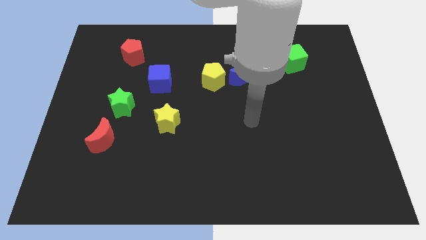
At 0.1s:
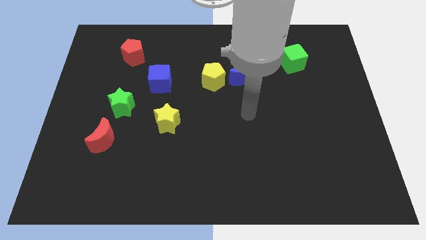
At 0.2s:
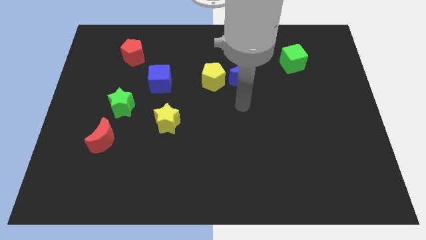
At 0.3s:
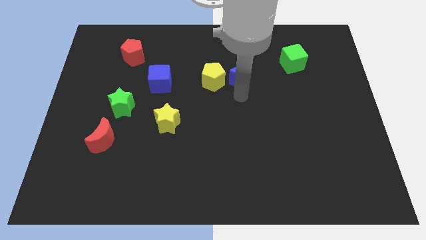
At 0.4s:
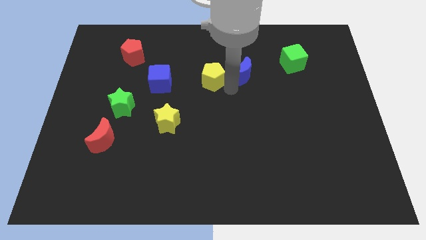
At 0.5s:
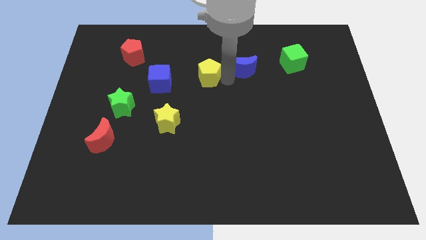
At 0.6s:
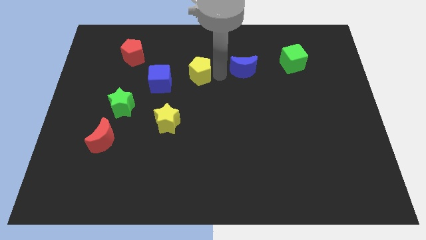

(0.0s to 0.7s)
pull the blue moon apart from the yellow pentagon

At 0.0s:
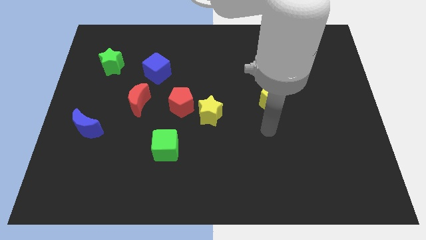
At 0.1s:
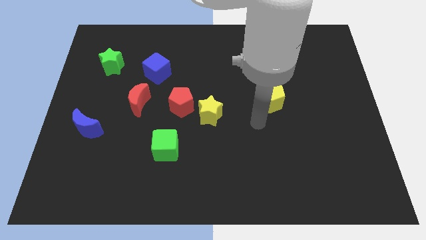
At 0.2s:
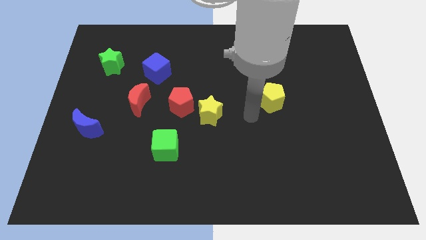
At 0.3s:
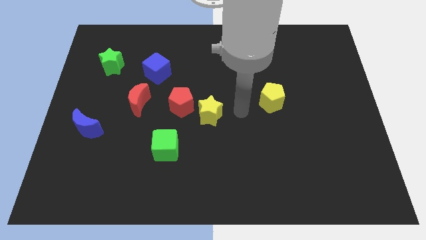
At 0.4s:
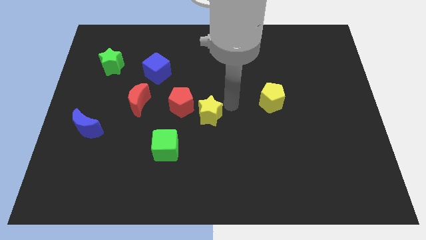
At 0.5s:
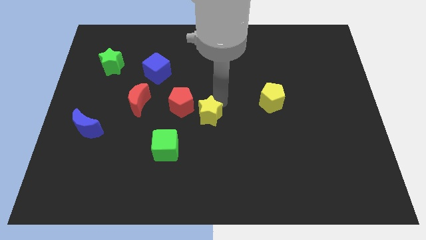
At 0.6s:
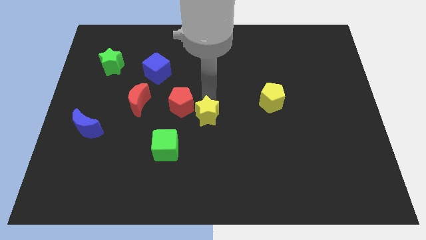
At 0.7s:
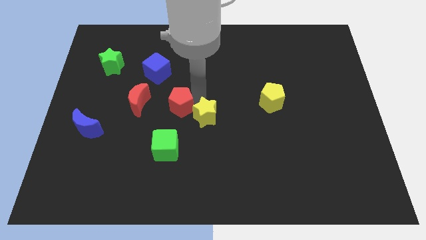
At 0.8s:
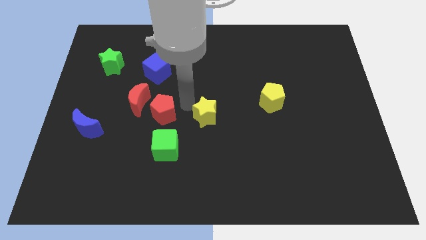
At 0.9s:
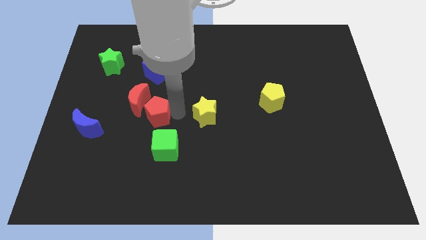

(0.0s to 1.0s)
pull the yellow star apart from the red pentagon

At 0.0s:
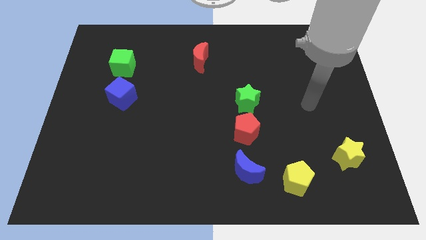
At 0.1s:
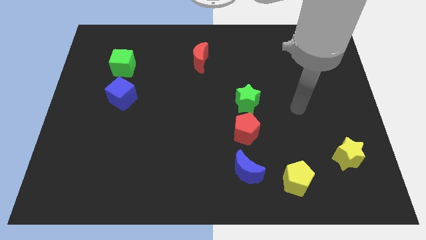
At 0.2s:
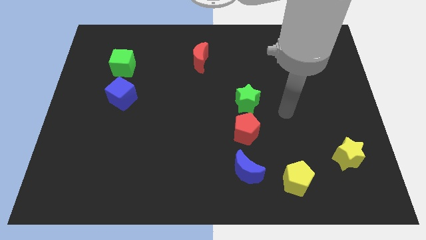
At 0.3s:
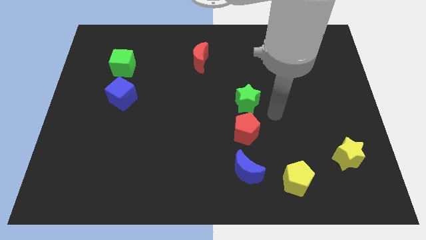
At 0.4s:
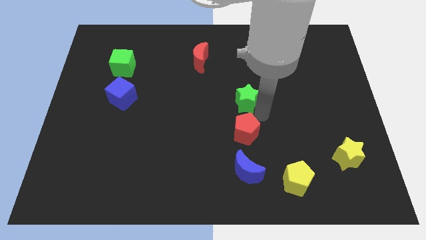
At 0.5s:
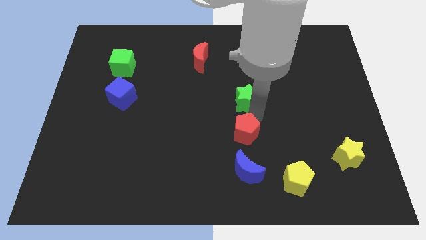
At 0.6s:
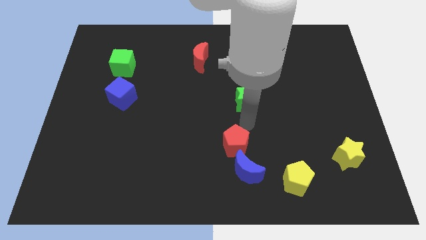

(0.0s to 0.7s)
separate the green star from the red pentagon

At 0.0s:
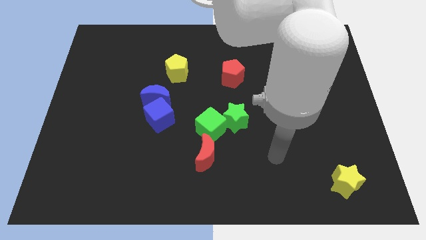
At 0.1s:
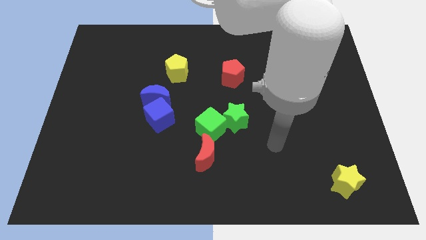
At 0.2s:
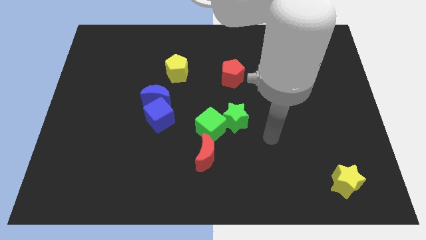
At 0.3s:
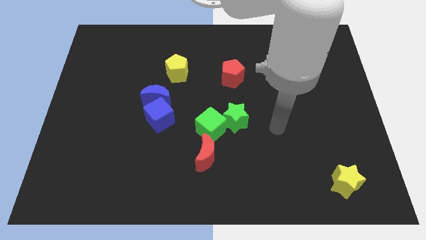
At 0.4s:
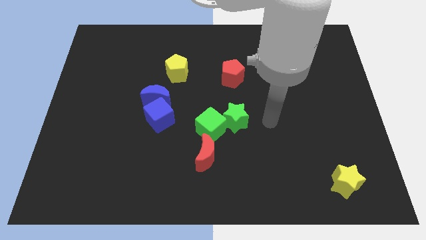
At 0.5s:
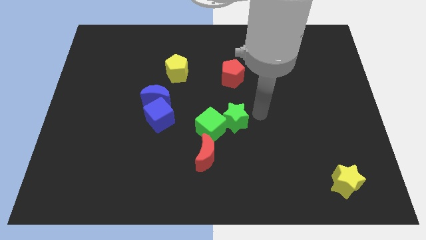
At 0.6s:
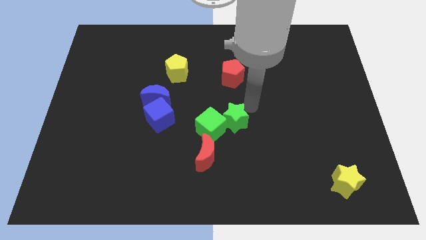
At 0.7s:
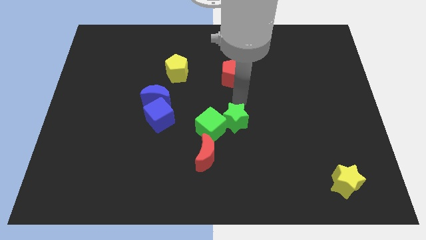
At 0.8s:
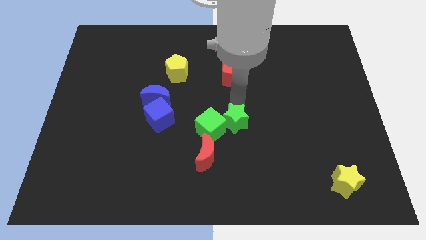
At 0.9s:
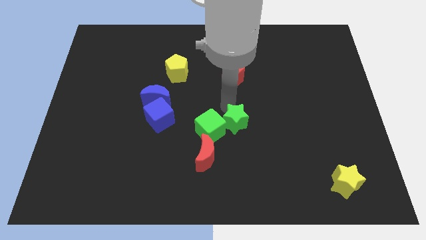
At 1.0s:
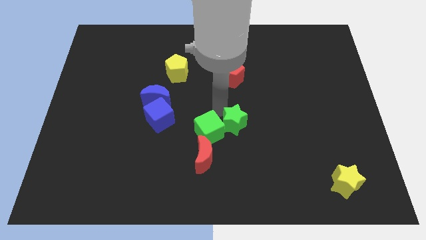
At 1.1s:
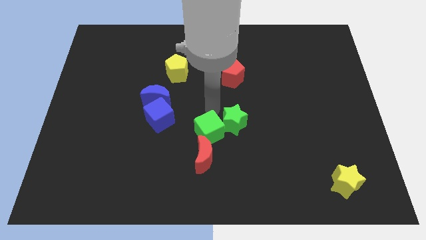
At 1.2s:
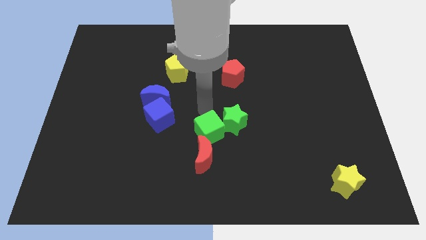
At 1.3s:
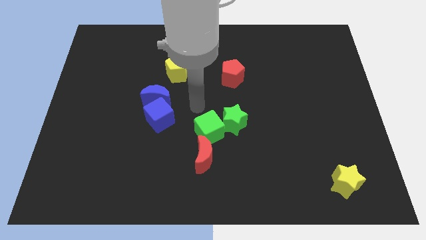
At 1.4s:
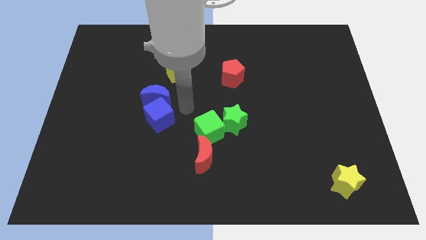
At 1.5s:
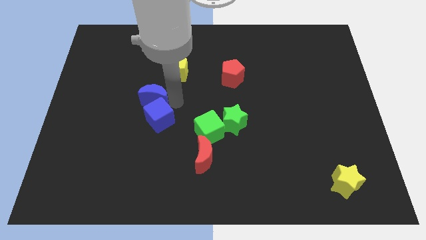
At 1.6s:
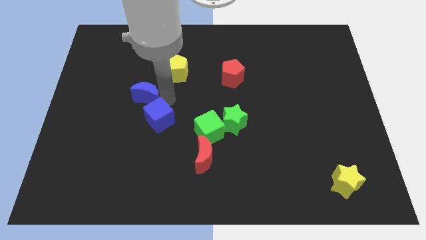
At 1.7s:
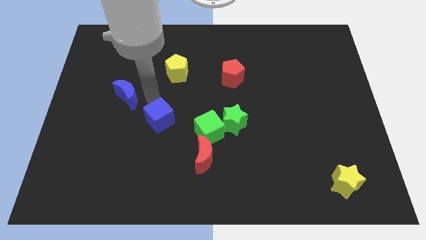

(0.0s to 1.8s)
move the blue cube away from the blue moon

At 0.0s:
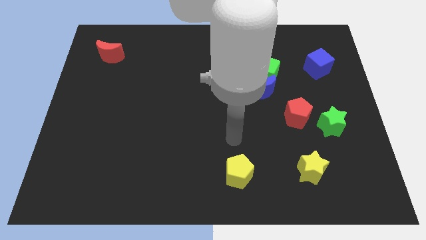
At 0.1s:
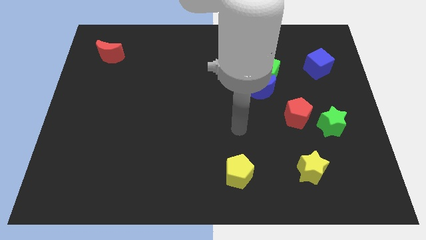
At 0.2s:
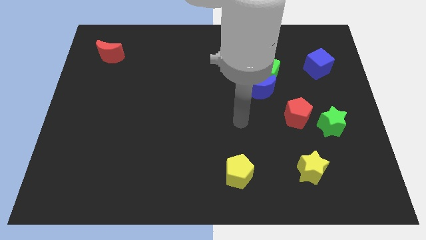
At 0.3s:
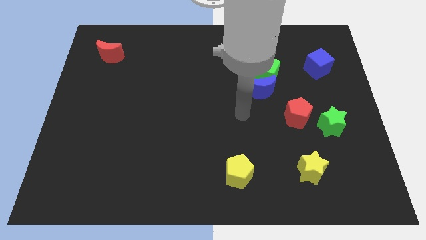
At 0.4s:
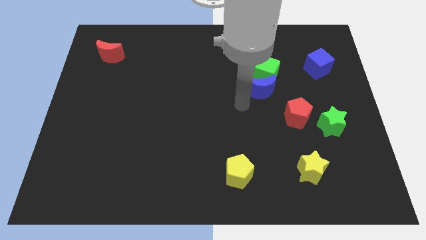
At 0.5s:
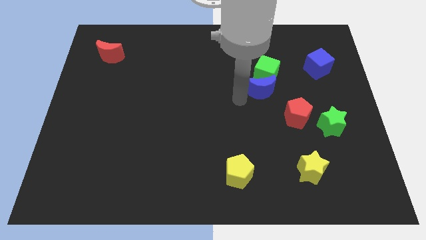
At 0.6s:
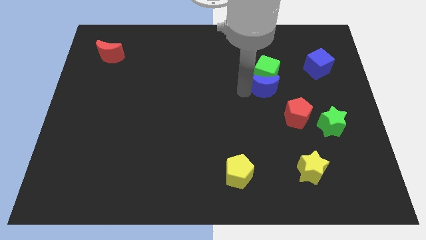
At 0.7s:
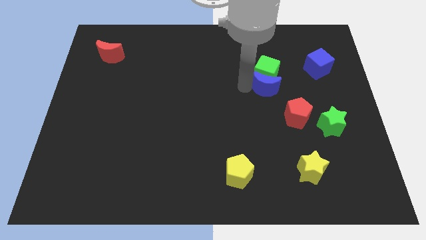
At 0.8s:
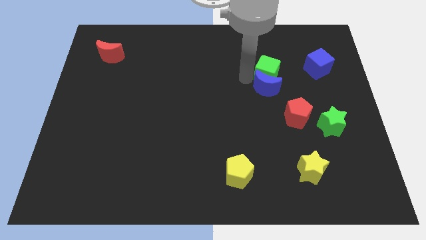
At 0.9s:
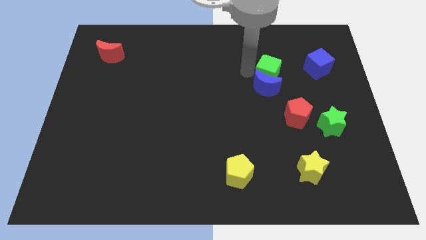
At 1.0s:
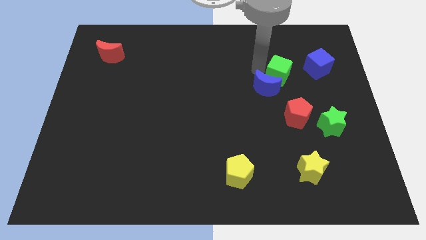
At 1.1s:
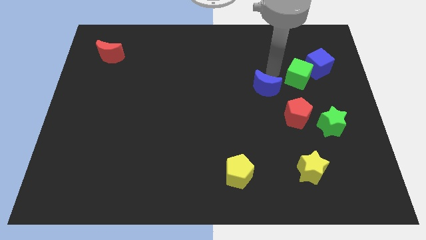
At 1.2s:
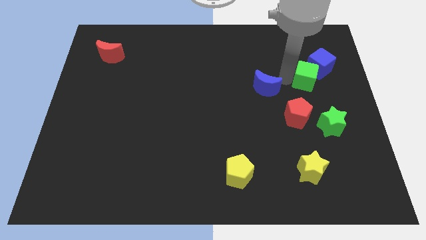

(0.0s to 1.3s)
move the blue moon away from the green cube

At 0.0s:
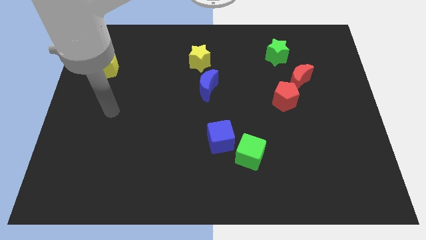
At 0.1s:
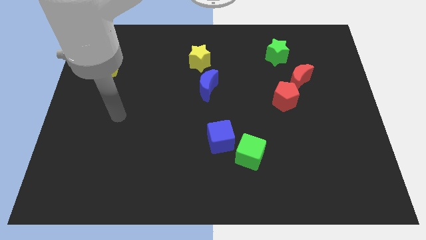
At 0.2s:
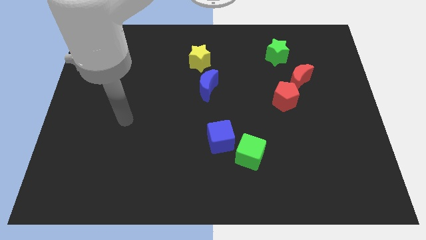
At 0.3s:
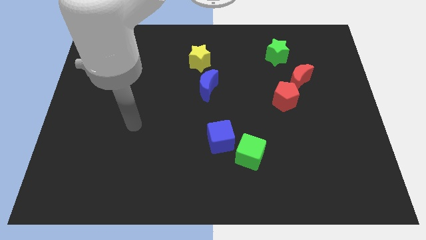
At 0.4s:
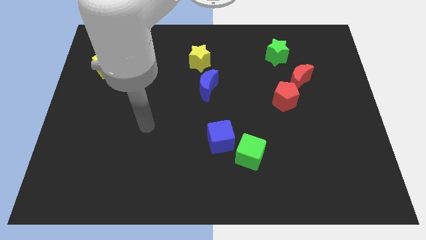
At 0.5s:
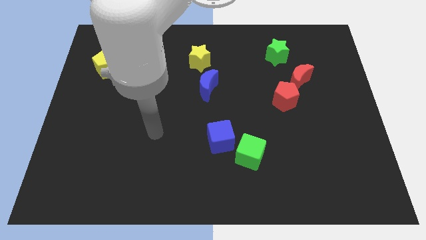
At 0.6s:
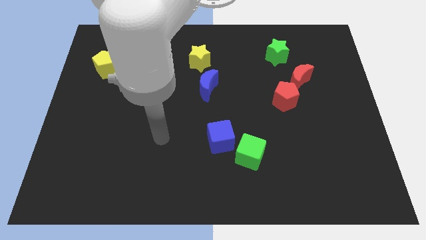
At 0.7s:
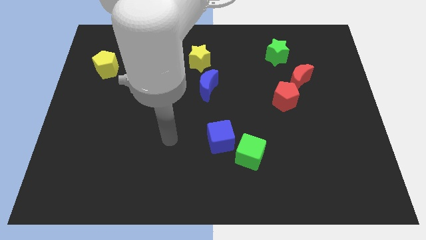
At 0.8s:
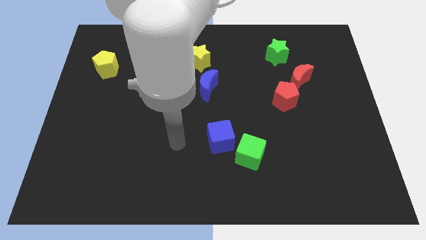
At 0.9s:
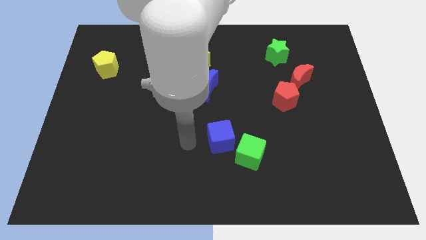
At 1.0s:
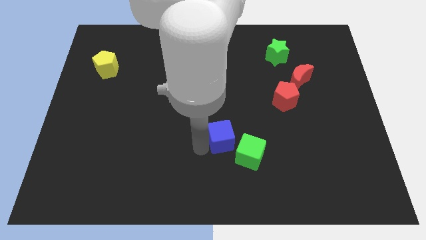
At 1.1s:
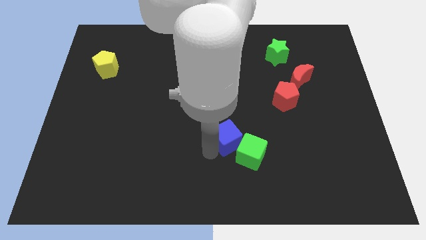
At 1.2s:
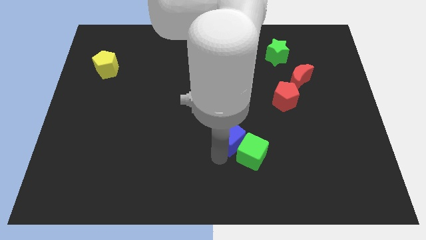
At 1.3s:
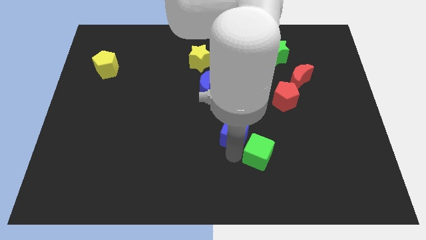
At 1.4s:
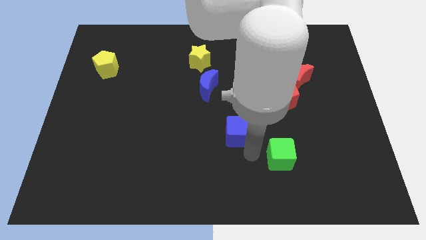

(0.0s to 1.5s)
move the blue cube away from the green cube

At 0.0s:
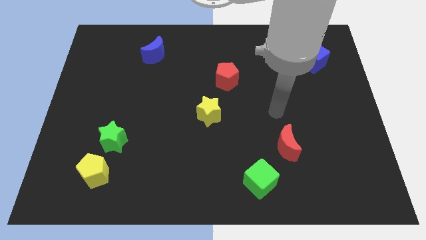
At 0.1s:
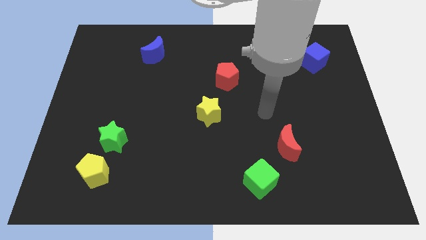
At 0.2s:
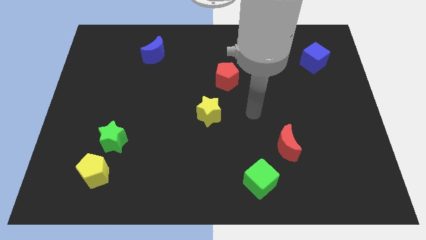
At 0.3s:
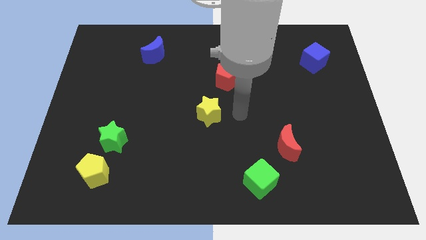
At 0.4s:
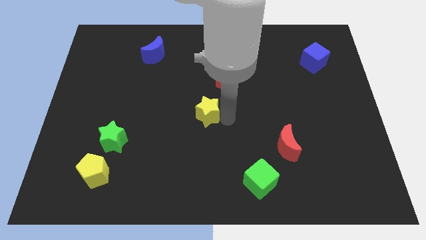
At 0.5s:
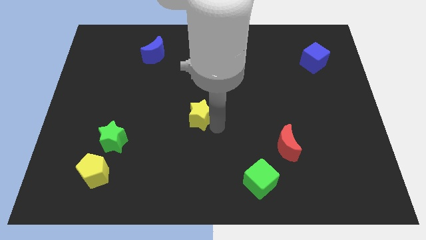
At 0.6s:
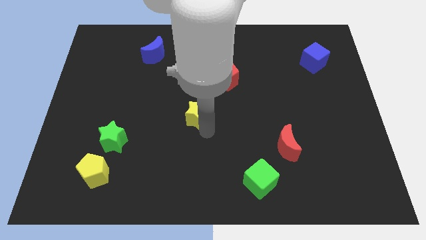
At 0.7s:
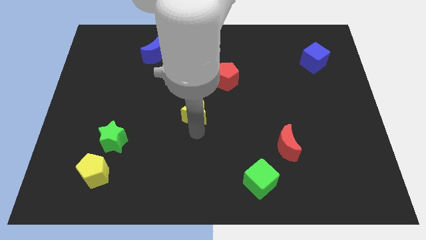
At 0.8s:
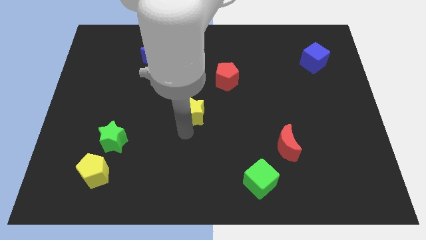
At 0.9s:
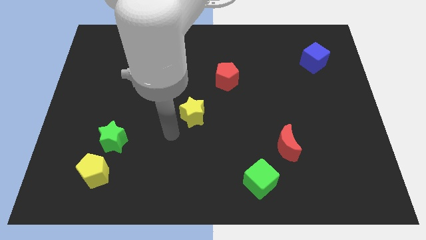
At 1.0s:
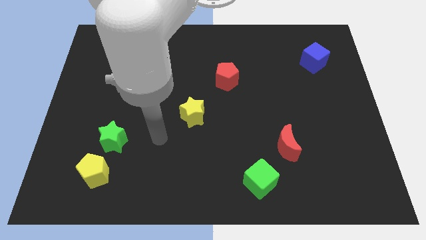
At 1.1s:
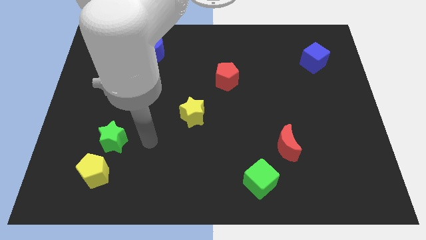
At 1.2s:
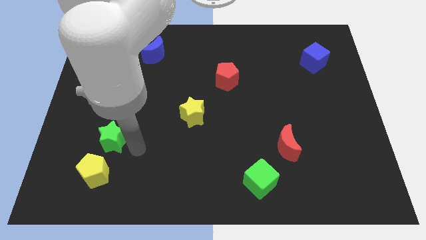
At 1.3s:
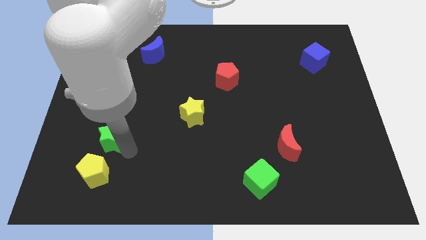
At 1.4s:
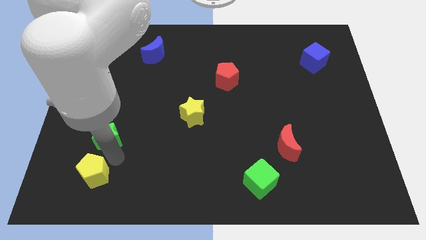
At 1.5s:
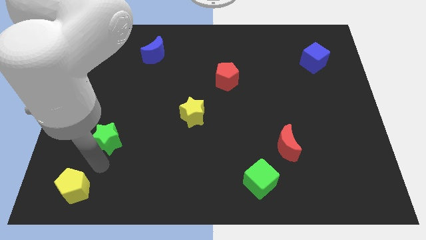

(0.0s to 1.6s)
separate the green star from the yellow pentagon

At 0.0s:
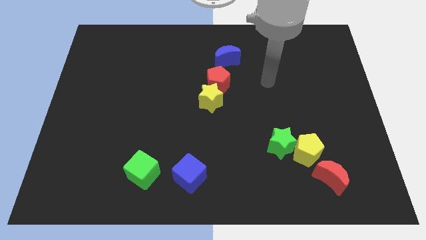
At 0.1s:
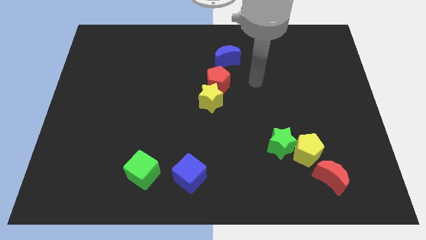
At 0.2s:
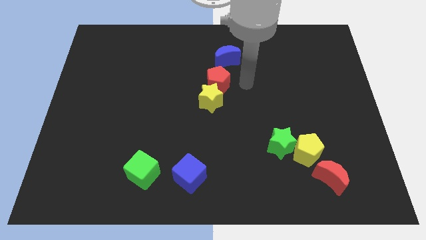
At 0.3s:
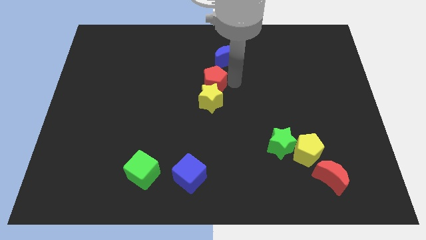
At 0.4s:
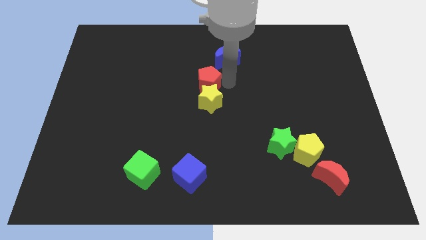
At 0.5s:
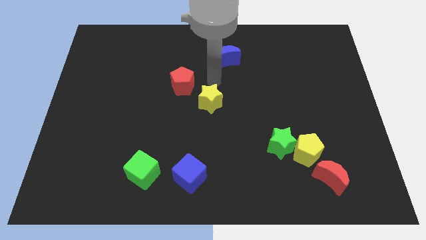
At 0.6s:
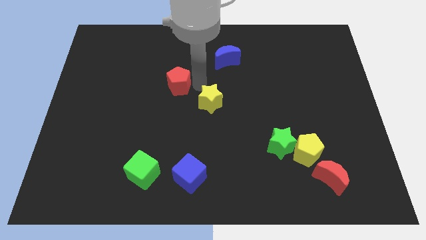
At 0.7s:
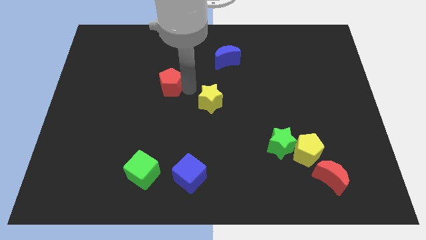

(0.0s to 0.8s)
separate the yellow star from the red pentagon
